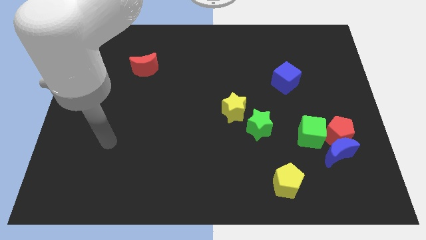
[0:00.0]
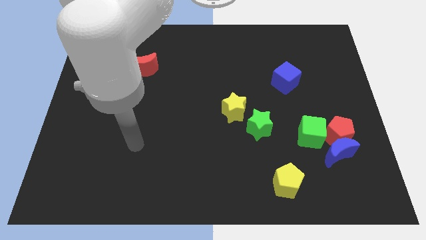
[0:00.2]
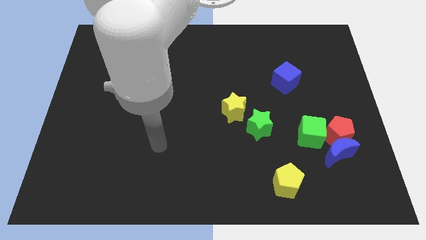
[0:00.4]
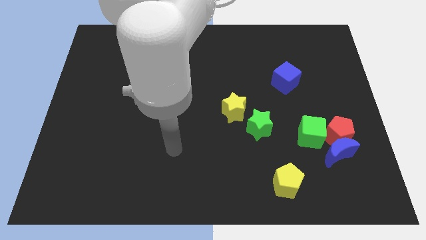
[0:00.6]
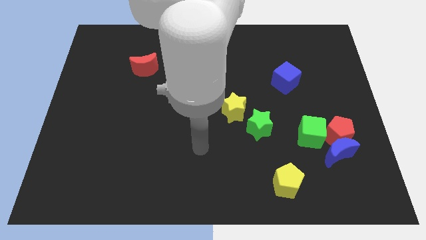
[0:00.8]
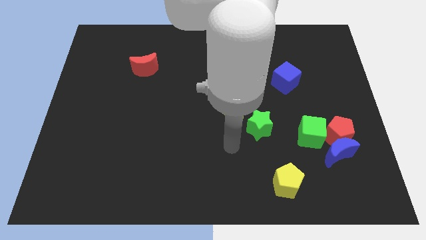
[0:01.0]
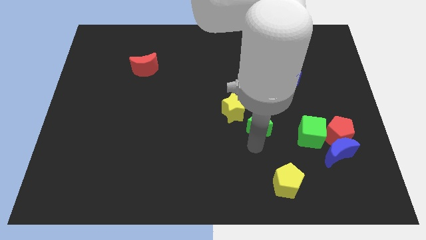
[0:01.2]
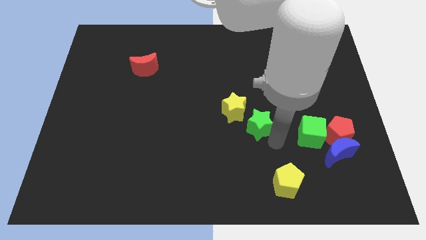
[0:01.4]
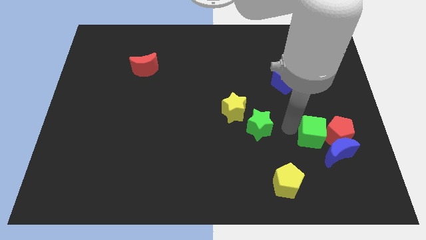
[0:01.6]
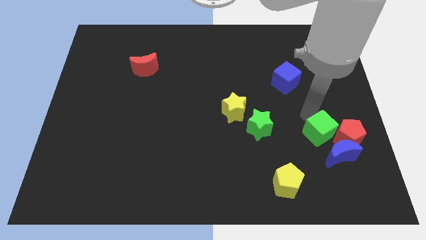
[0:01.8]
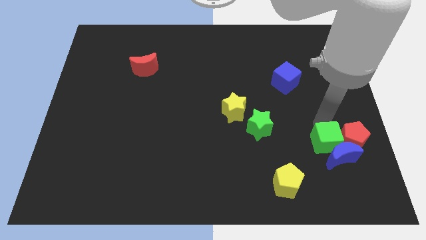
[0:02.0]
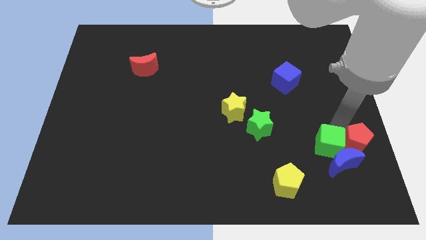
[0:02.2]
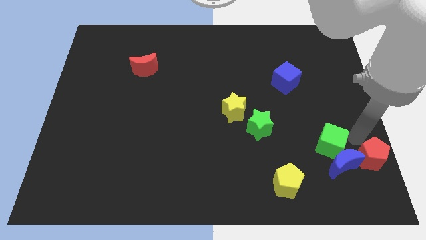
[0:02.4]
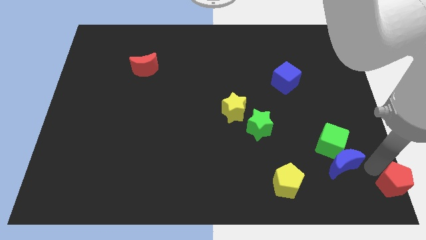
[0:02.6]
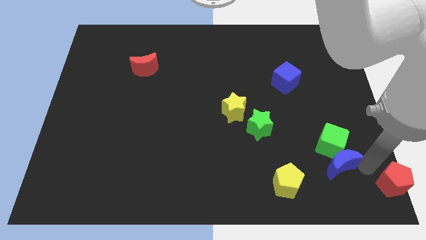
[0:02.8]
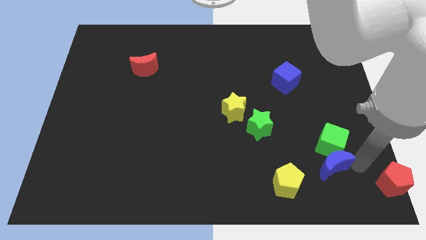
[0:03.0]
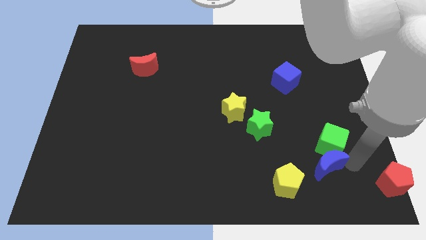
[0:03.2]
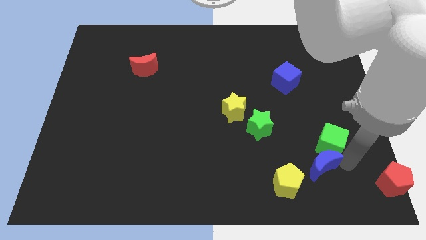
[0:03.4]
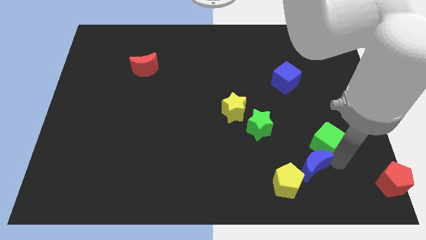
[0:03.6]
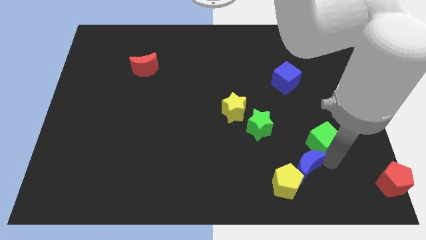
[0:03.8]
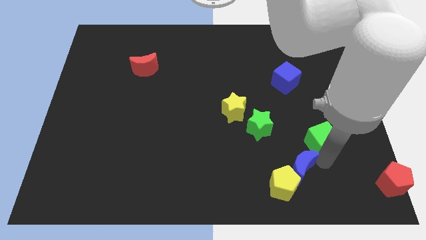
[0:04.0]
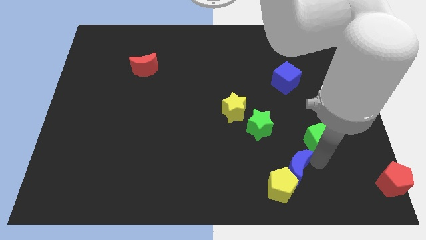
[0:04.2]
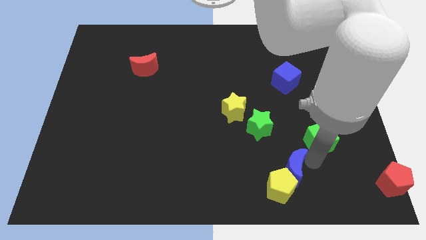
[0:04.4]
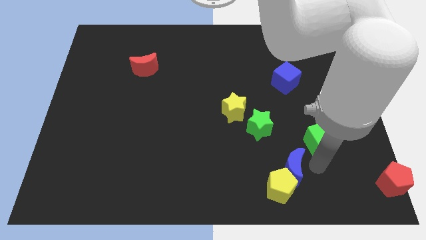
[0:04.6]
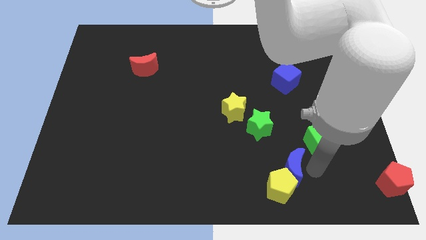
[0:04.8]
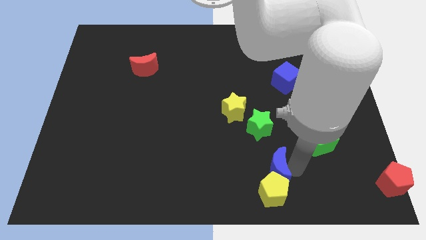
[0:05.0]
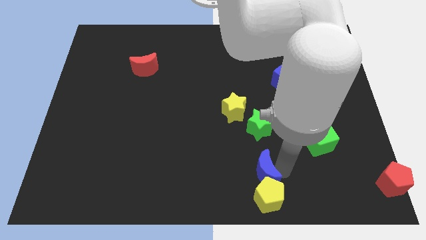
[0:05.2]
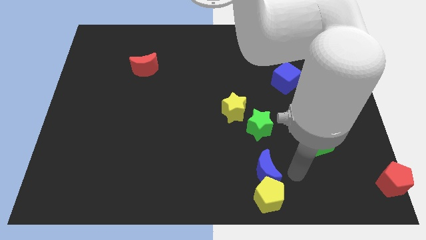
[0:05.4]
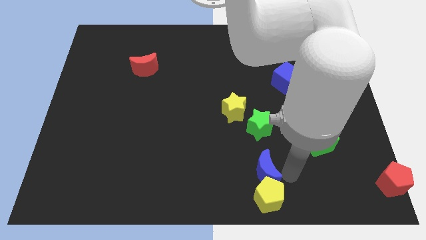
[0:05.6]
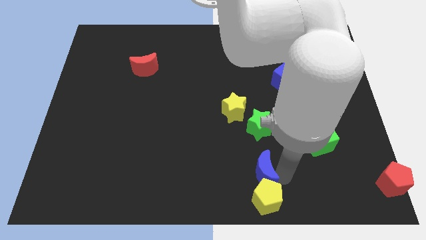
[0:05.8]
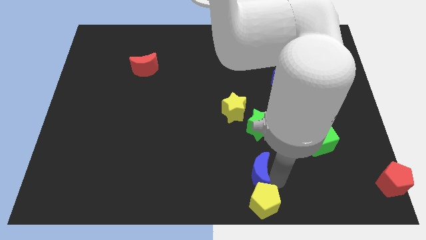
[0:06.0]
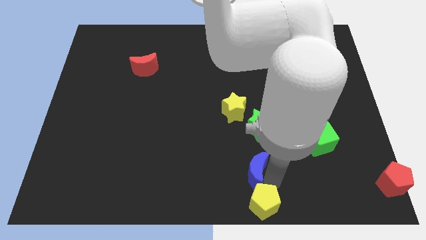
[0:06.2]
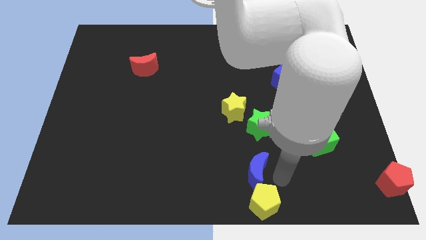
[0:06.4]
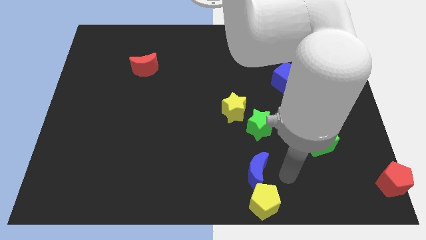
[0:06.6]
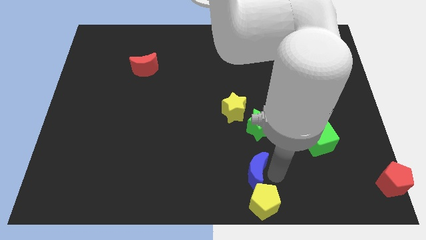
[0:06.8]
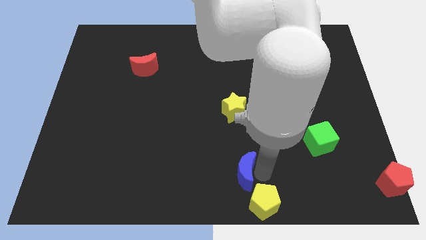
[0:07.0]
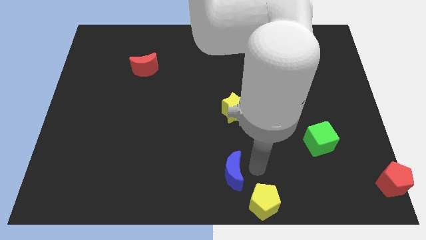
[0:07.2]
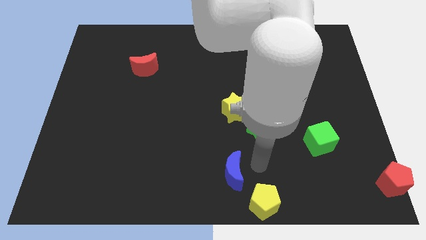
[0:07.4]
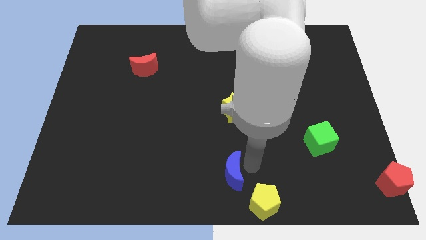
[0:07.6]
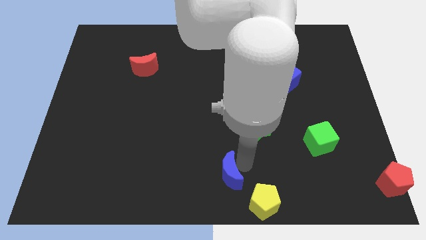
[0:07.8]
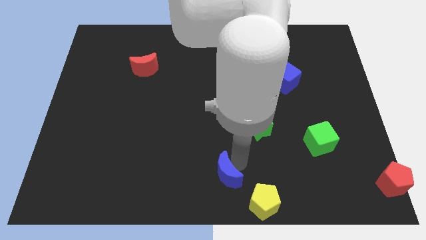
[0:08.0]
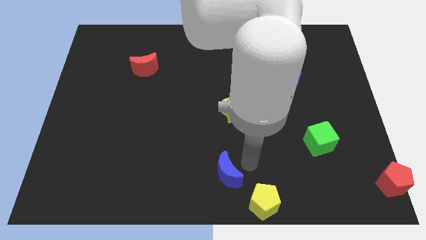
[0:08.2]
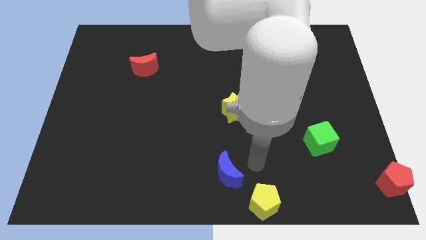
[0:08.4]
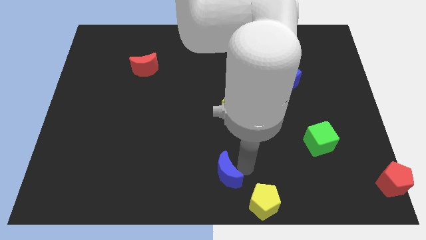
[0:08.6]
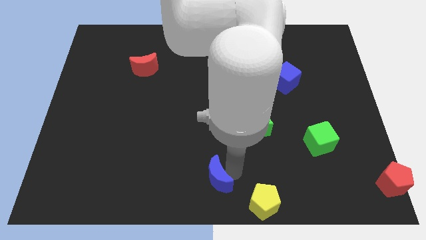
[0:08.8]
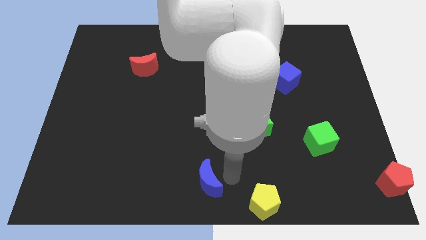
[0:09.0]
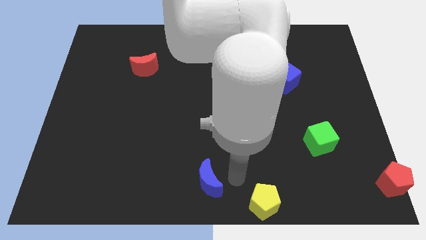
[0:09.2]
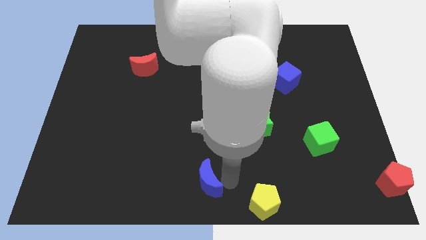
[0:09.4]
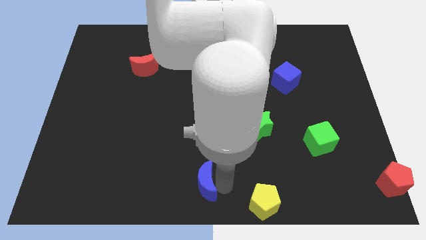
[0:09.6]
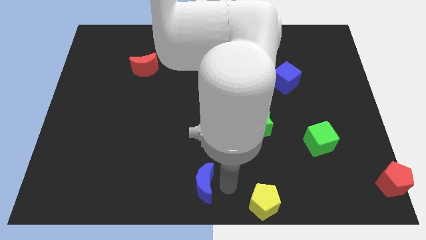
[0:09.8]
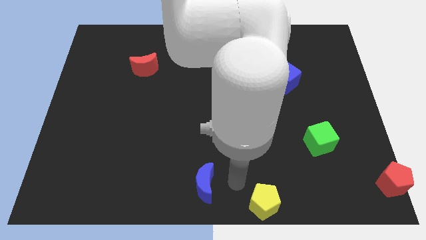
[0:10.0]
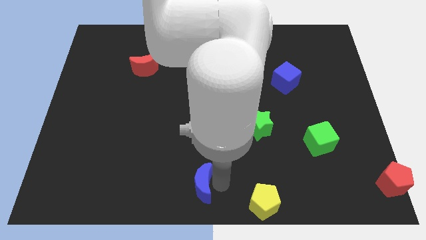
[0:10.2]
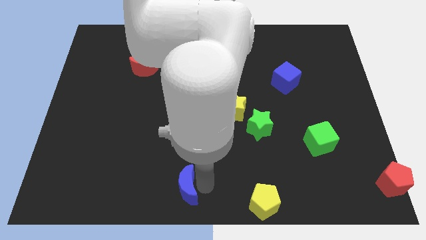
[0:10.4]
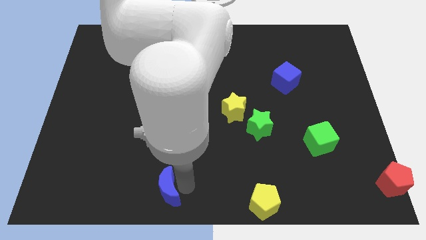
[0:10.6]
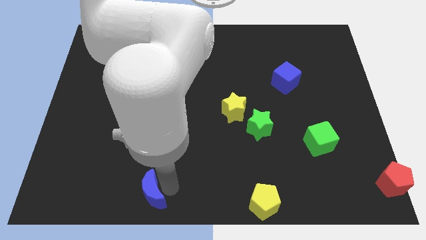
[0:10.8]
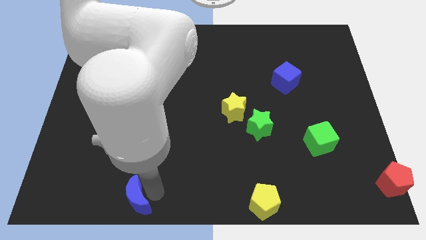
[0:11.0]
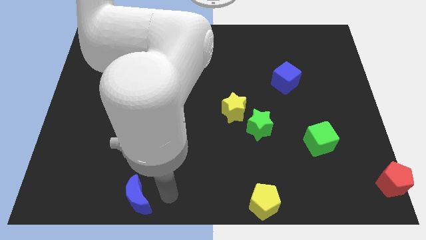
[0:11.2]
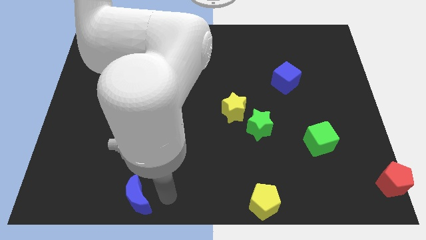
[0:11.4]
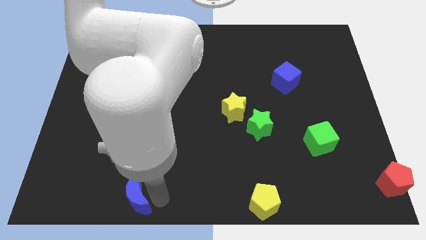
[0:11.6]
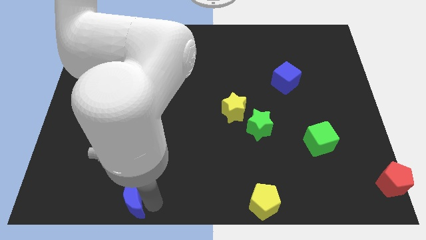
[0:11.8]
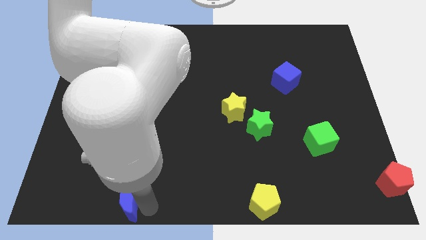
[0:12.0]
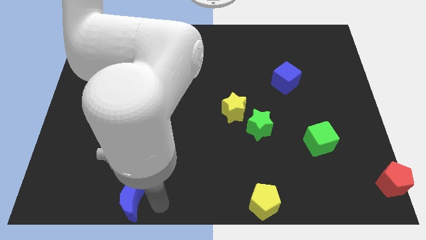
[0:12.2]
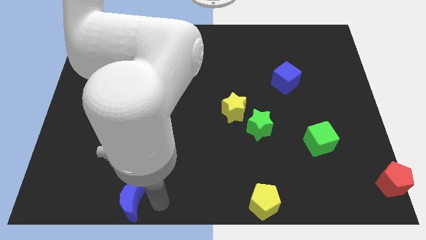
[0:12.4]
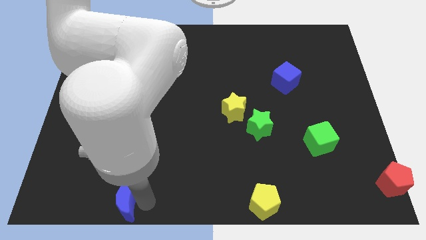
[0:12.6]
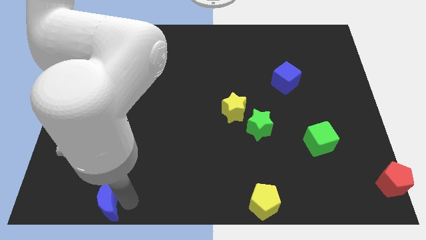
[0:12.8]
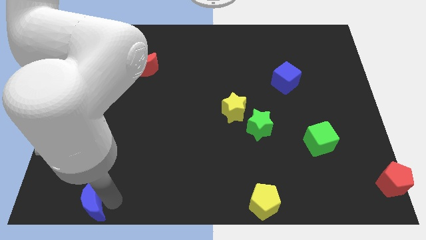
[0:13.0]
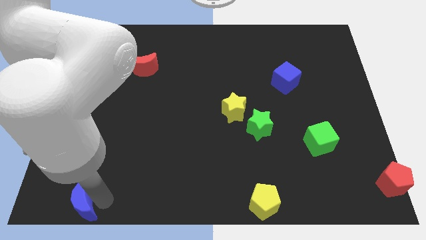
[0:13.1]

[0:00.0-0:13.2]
push the blue moon to the bottom left

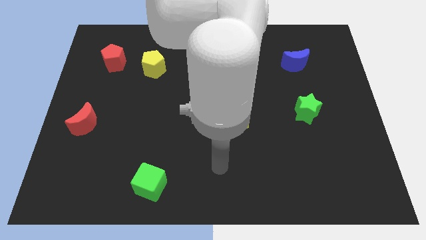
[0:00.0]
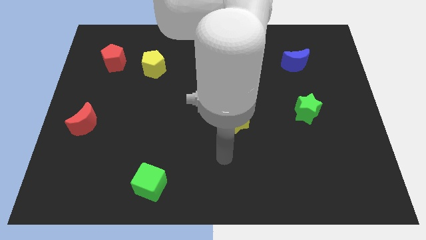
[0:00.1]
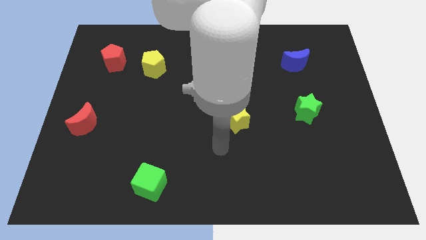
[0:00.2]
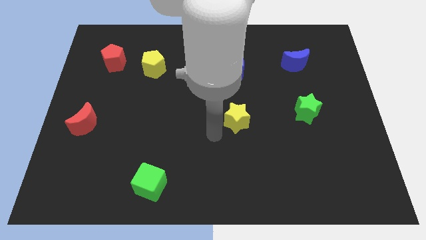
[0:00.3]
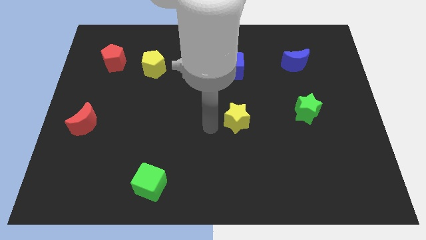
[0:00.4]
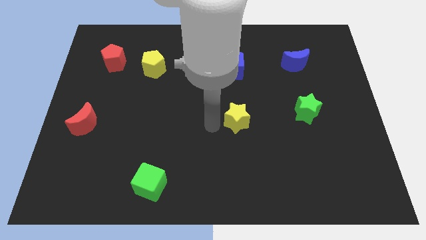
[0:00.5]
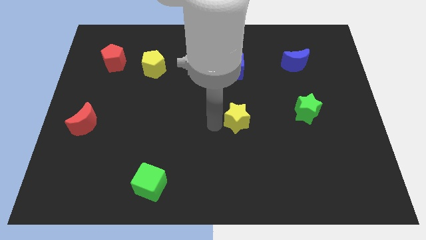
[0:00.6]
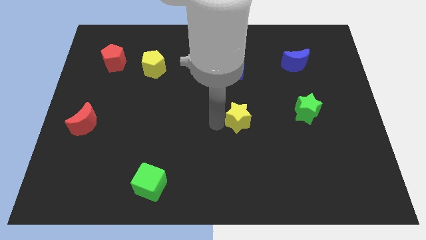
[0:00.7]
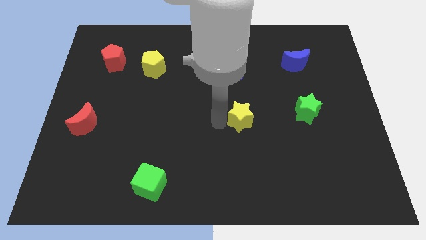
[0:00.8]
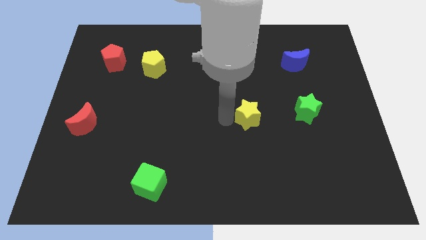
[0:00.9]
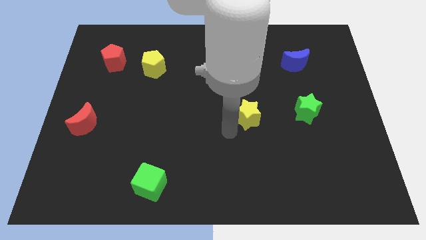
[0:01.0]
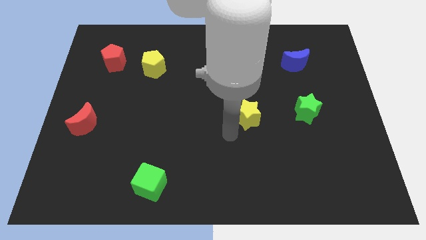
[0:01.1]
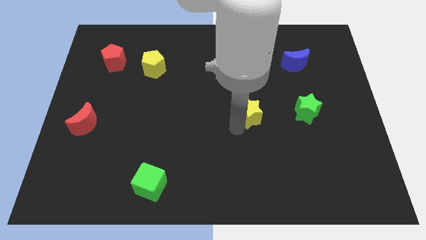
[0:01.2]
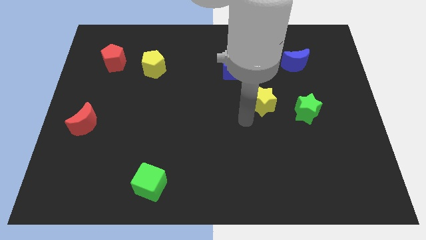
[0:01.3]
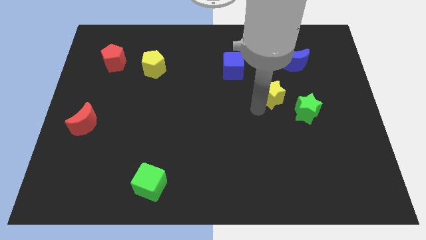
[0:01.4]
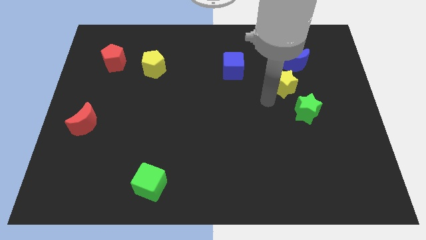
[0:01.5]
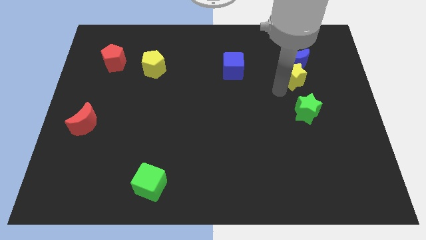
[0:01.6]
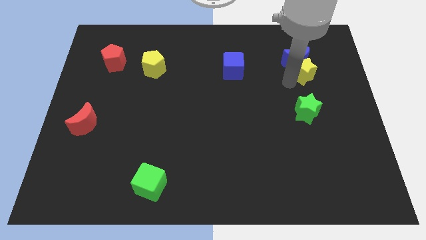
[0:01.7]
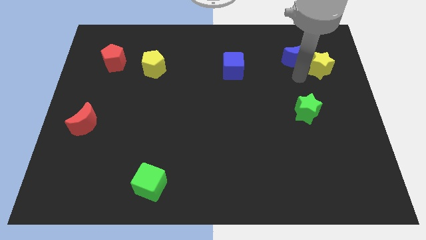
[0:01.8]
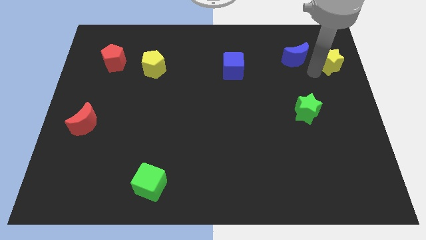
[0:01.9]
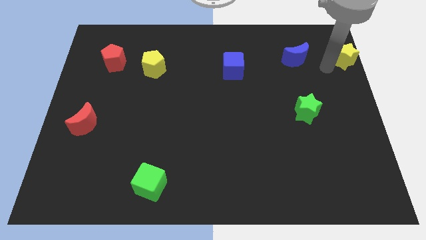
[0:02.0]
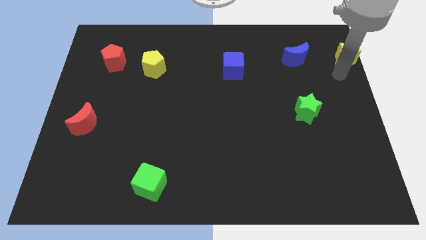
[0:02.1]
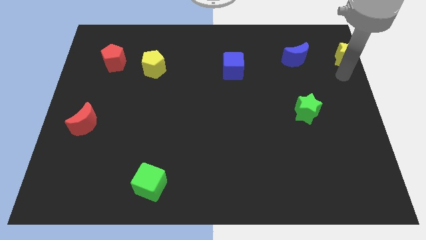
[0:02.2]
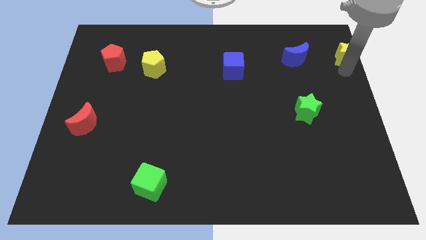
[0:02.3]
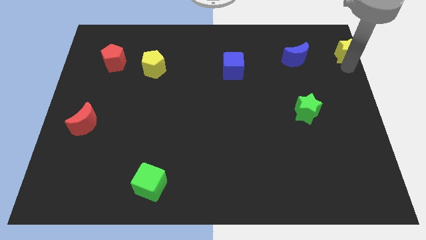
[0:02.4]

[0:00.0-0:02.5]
slide the yellow star to the top right of the board
